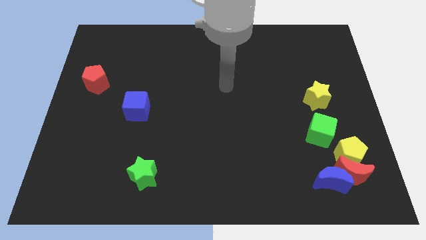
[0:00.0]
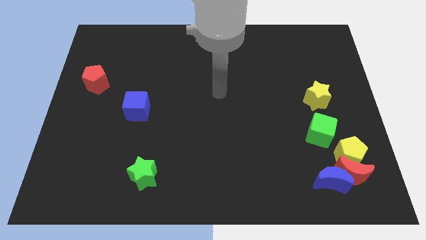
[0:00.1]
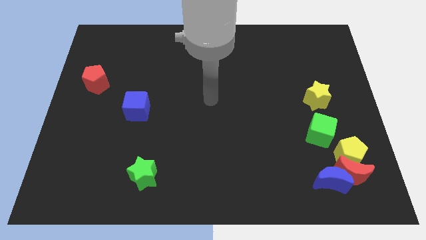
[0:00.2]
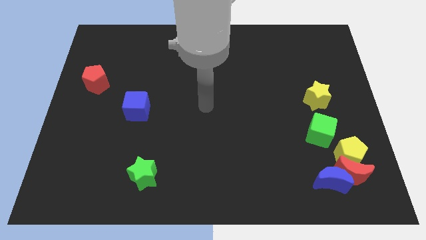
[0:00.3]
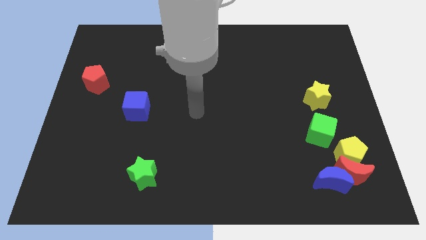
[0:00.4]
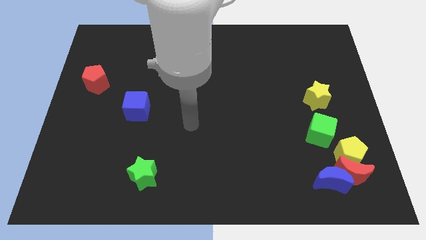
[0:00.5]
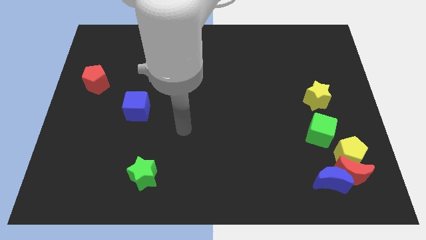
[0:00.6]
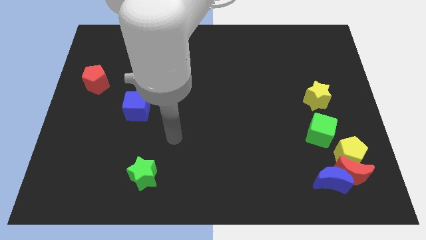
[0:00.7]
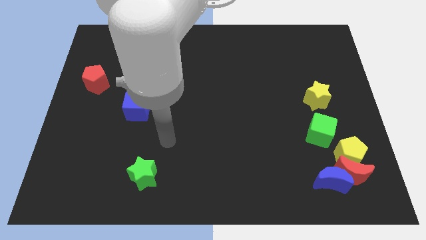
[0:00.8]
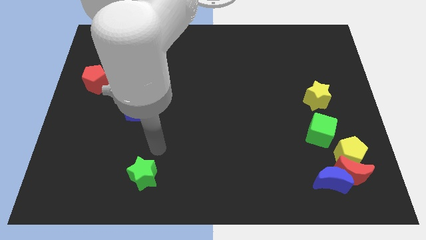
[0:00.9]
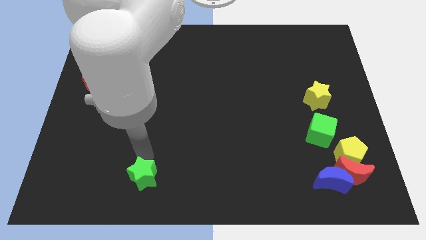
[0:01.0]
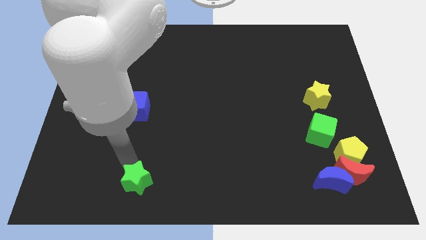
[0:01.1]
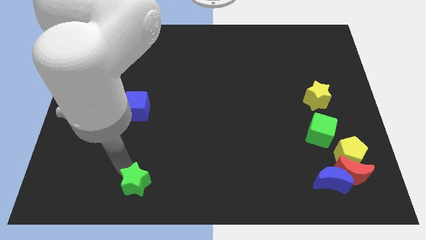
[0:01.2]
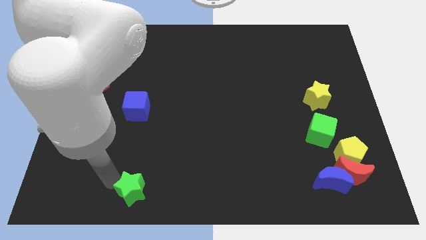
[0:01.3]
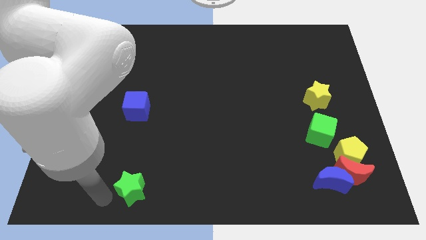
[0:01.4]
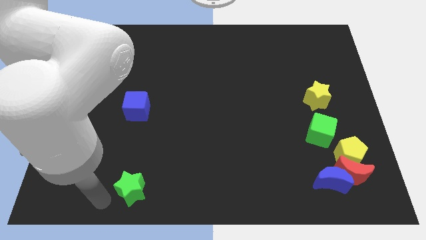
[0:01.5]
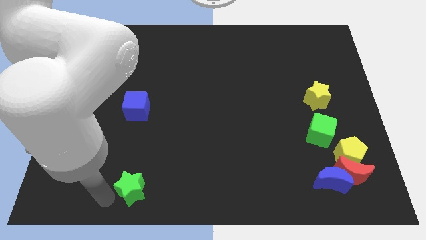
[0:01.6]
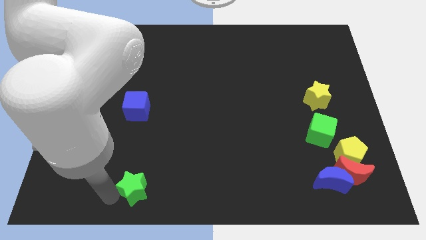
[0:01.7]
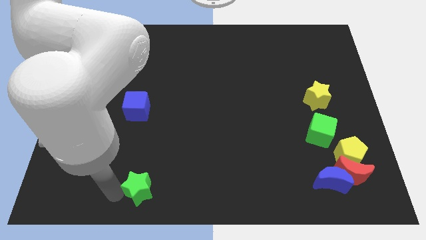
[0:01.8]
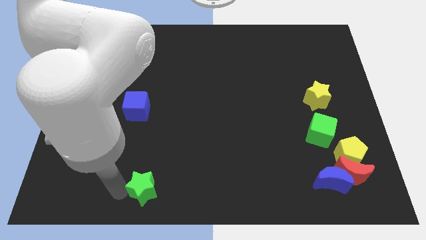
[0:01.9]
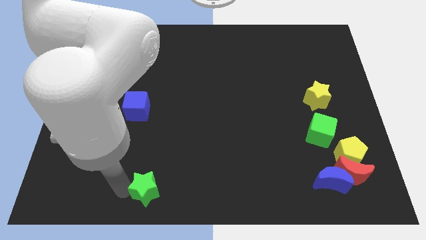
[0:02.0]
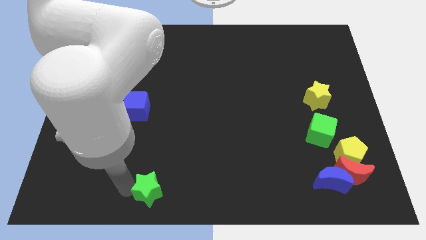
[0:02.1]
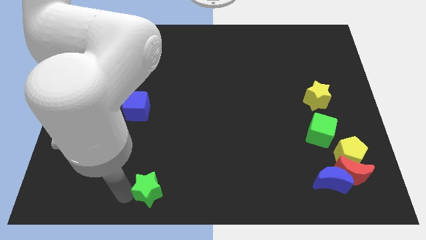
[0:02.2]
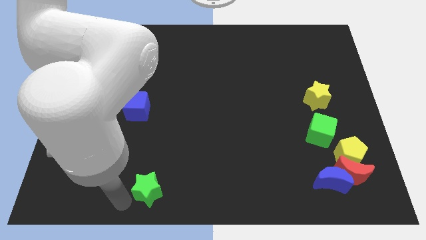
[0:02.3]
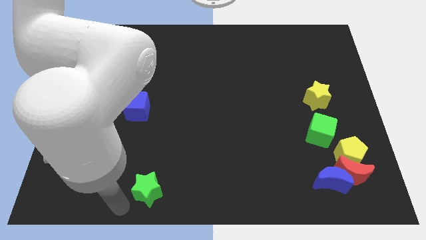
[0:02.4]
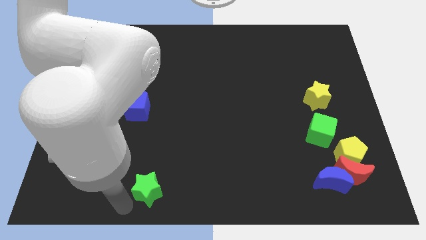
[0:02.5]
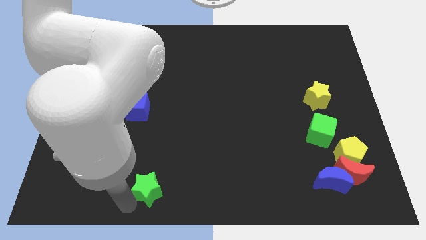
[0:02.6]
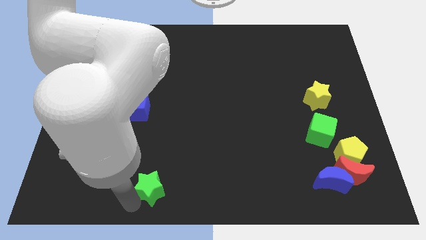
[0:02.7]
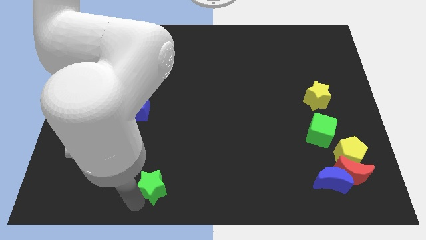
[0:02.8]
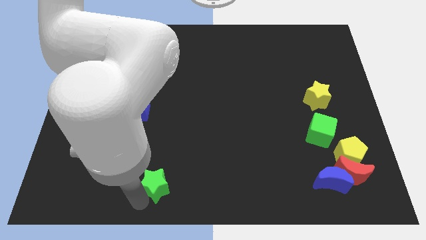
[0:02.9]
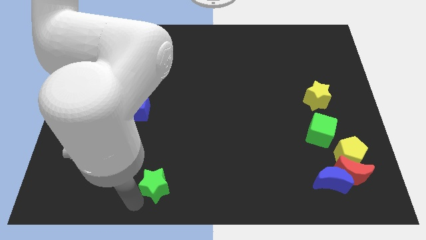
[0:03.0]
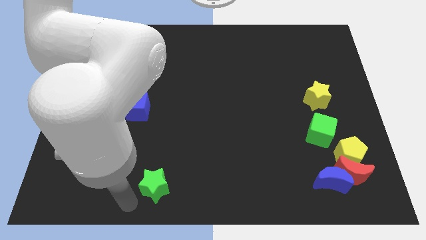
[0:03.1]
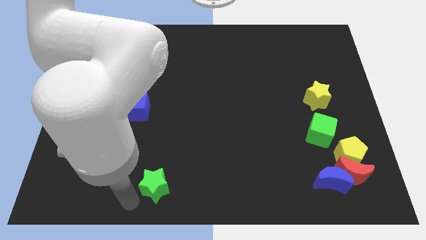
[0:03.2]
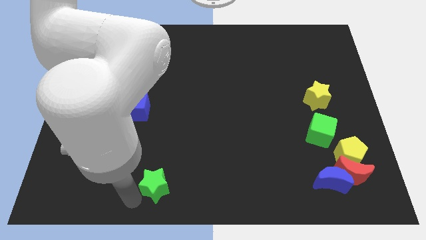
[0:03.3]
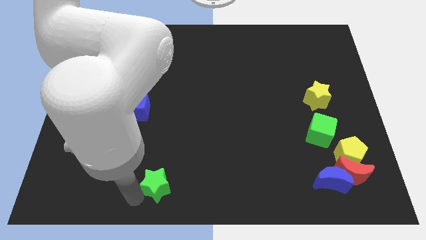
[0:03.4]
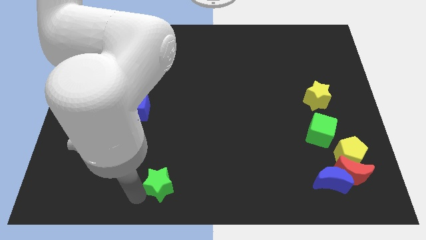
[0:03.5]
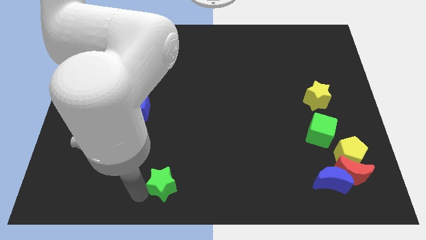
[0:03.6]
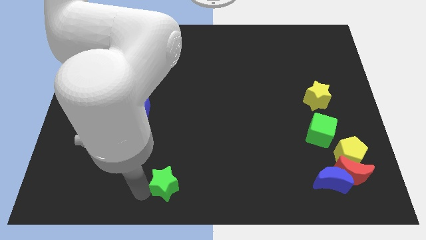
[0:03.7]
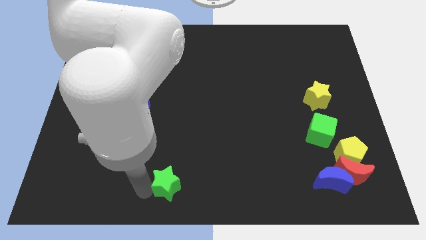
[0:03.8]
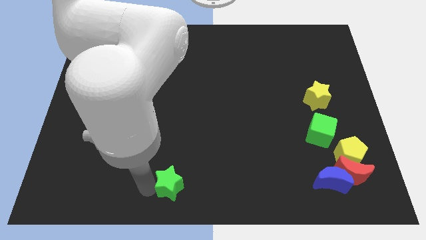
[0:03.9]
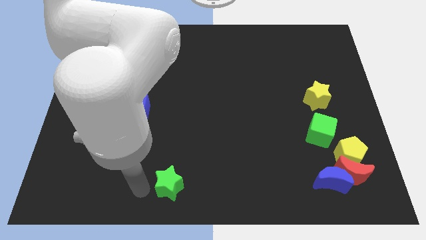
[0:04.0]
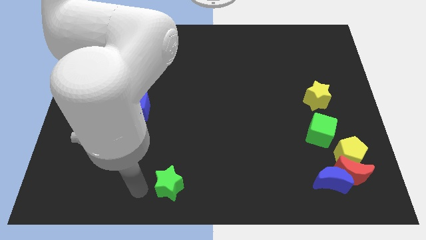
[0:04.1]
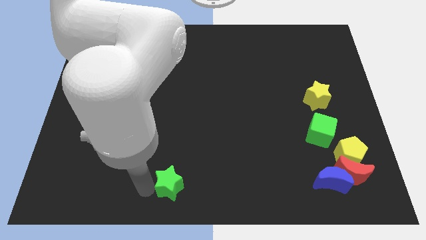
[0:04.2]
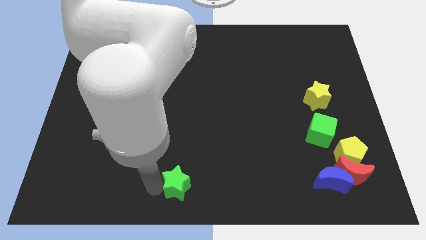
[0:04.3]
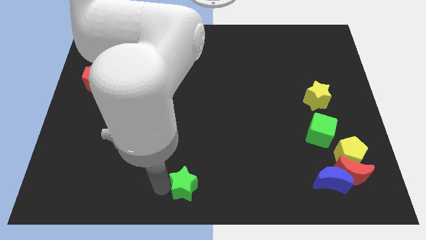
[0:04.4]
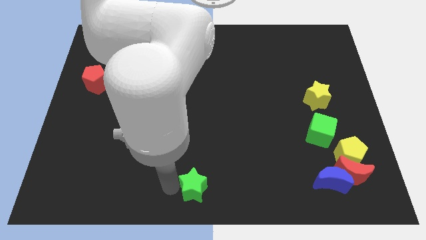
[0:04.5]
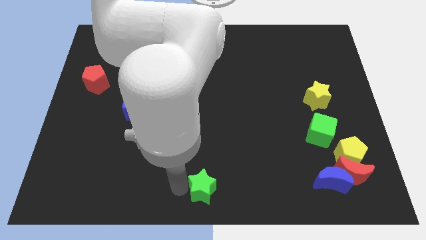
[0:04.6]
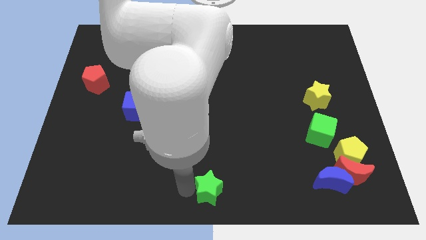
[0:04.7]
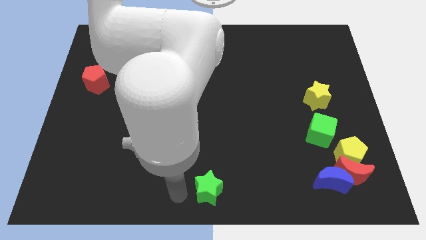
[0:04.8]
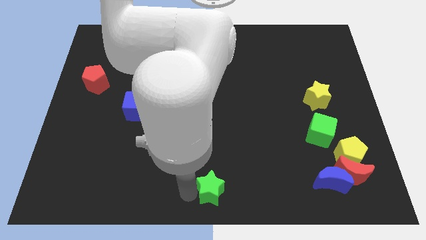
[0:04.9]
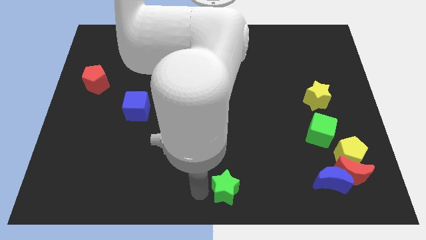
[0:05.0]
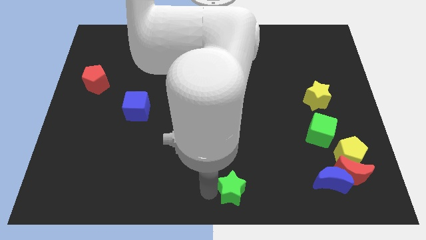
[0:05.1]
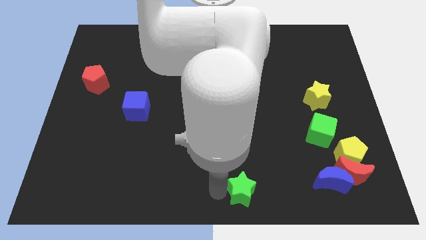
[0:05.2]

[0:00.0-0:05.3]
move the green star right

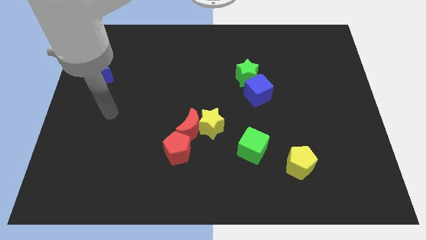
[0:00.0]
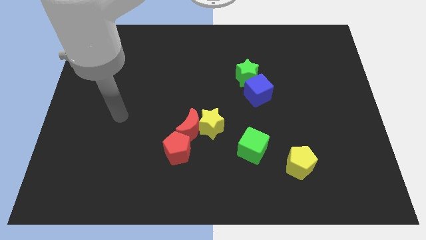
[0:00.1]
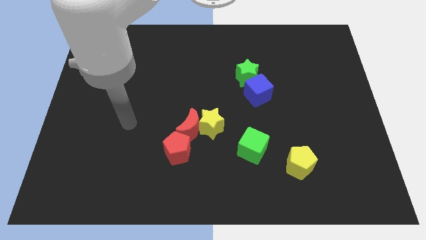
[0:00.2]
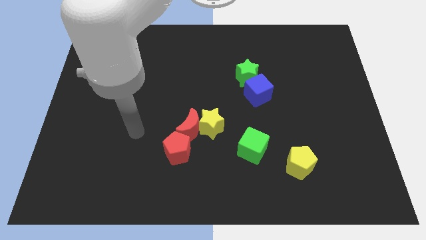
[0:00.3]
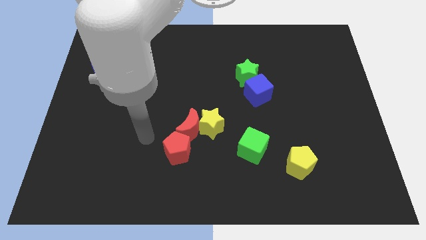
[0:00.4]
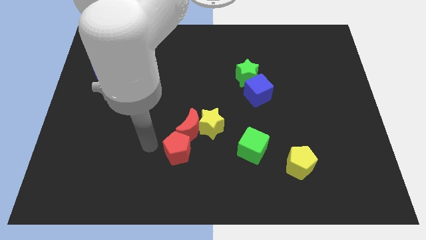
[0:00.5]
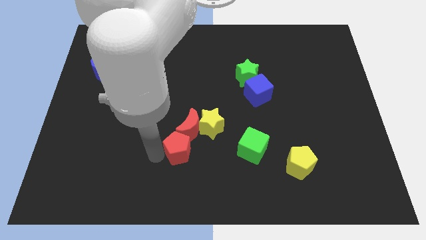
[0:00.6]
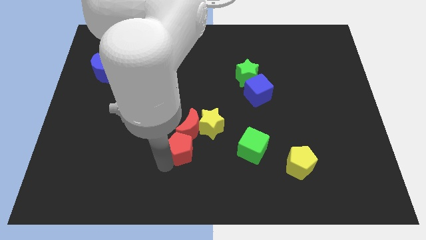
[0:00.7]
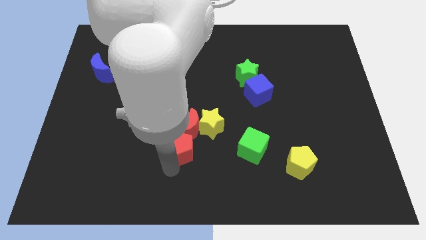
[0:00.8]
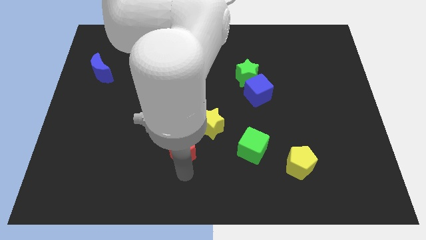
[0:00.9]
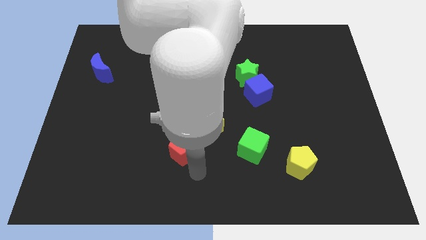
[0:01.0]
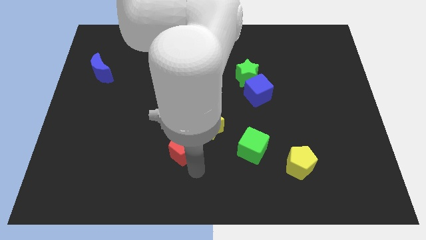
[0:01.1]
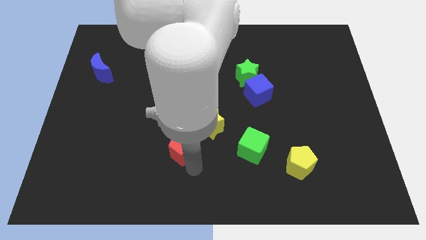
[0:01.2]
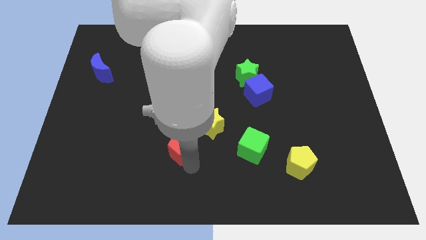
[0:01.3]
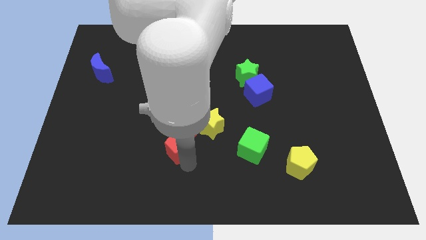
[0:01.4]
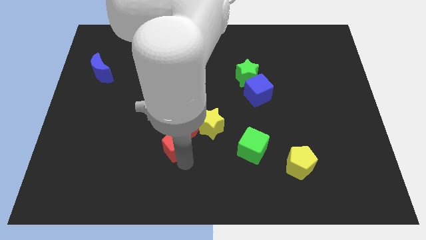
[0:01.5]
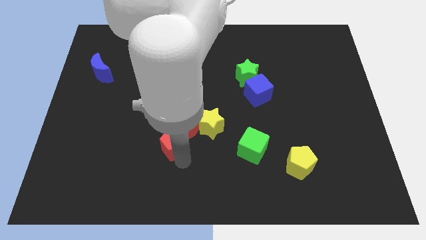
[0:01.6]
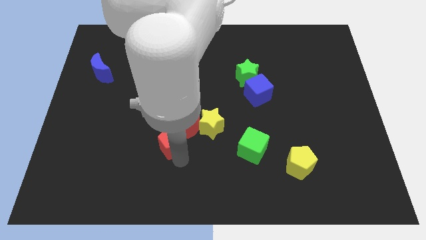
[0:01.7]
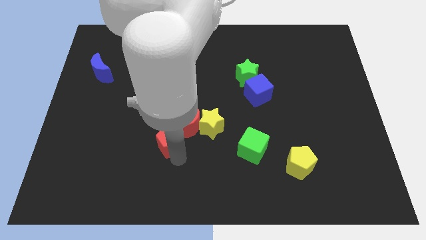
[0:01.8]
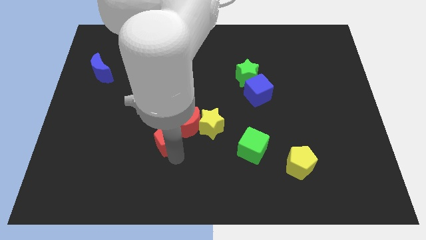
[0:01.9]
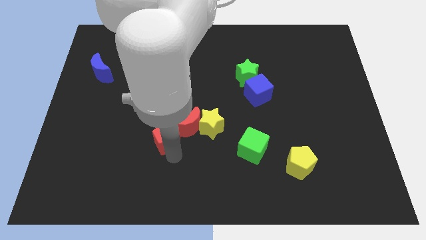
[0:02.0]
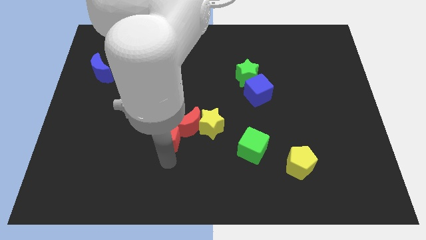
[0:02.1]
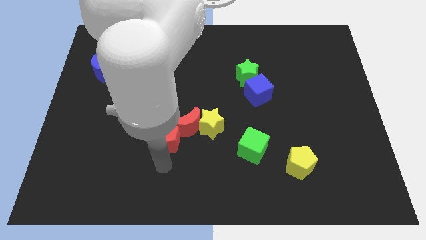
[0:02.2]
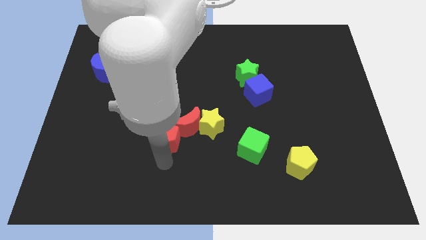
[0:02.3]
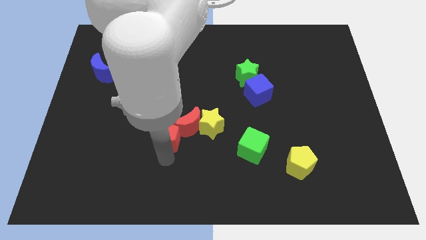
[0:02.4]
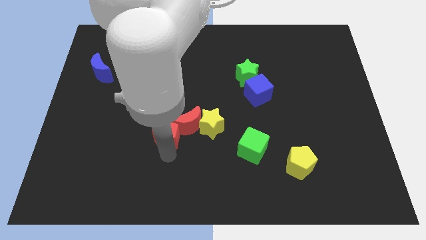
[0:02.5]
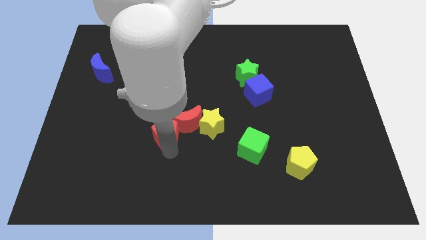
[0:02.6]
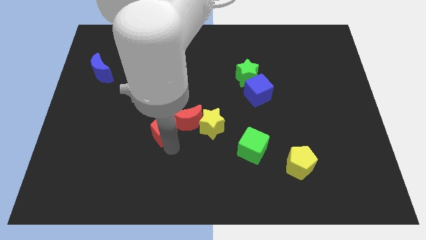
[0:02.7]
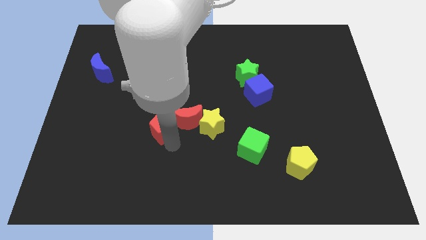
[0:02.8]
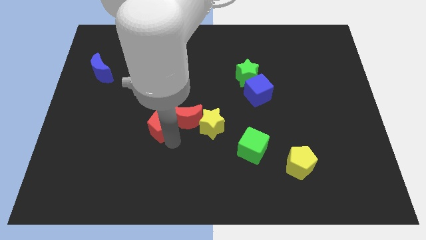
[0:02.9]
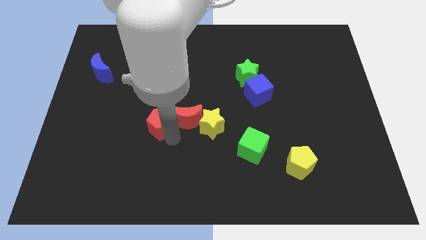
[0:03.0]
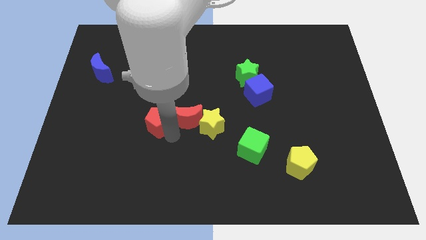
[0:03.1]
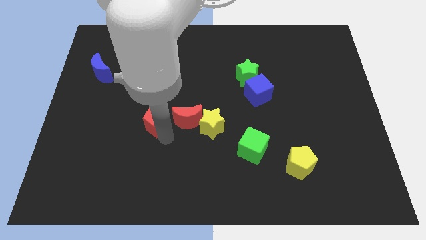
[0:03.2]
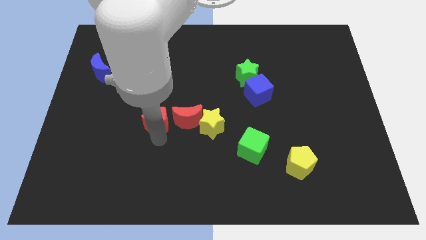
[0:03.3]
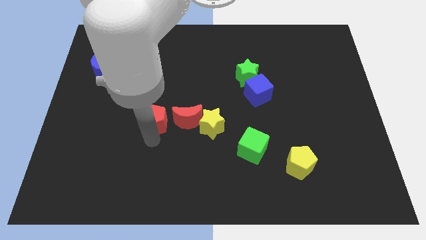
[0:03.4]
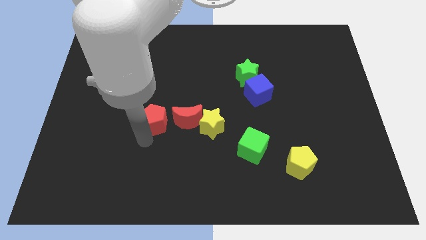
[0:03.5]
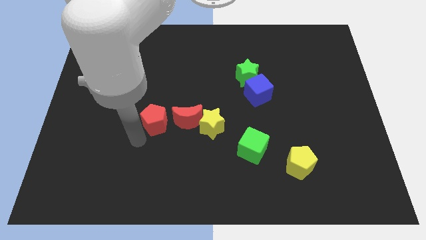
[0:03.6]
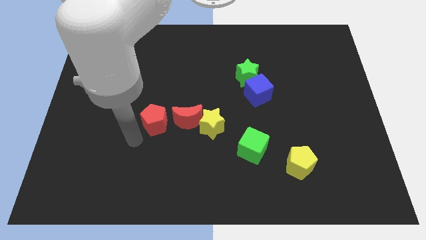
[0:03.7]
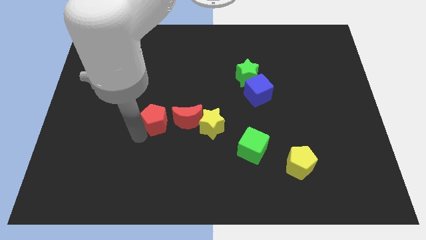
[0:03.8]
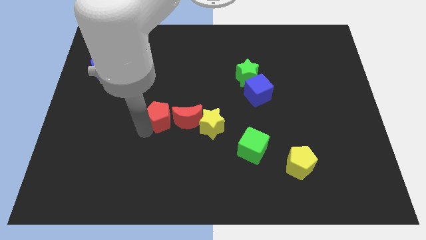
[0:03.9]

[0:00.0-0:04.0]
slide the red pentagon a bit up
